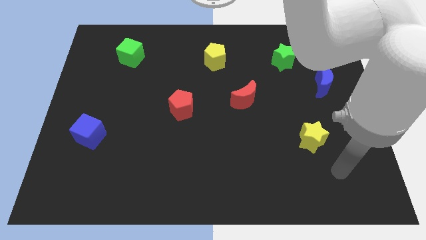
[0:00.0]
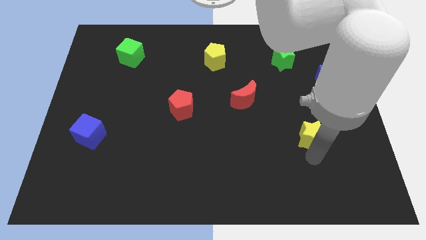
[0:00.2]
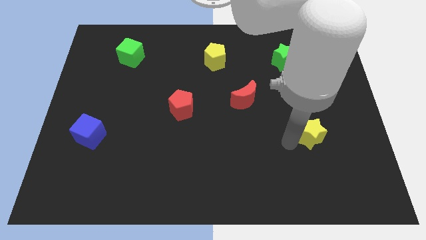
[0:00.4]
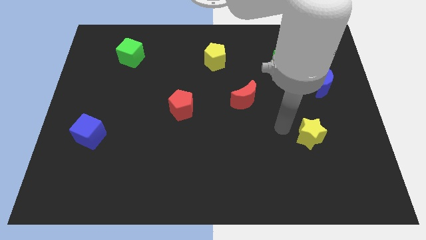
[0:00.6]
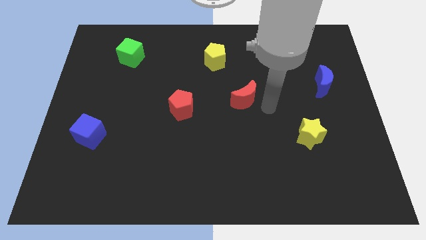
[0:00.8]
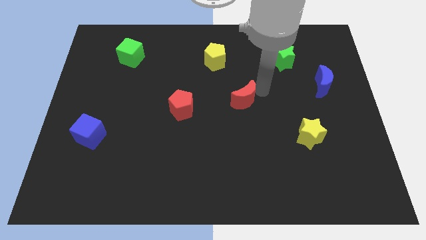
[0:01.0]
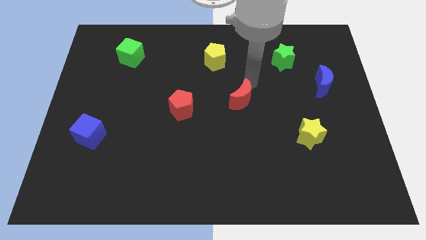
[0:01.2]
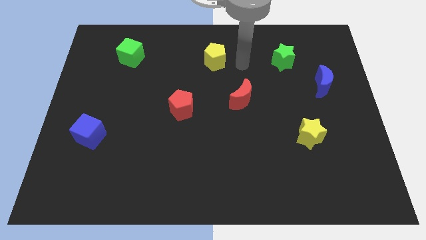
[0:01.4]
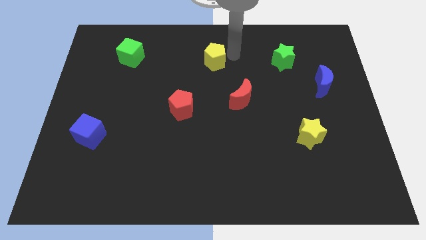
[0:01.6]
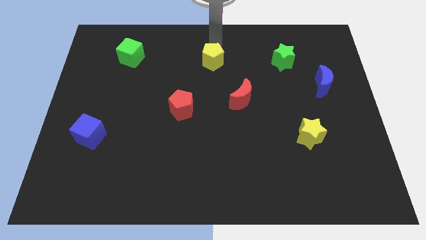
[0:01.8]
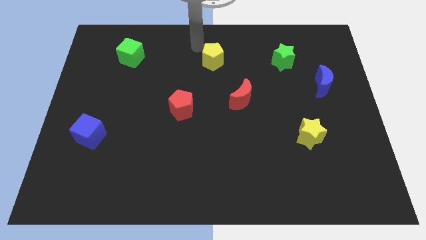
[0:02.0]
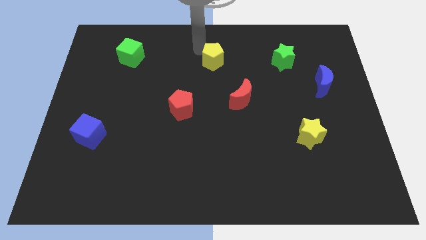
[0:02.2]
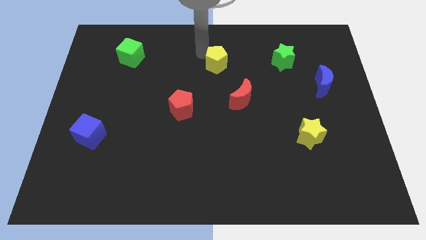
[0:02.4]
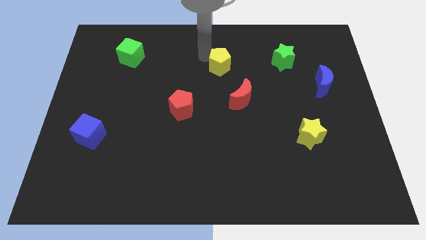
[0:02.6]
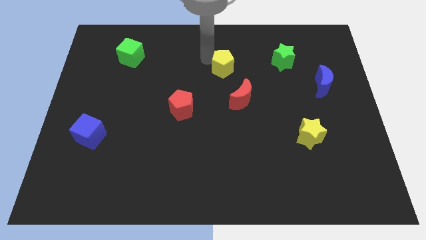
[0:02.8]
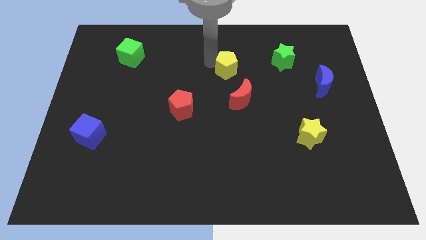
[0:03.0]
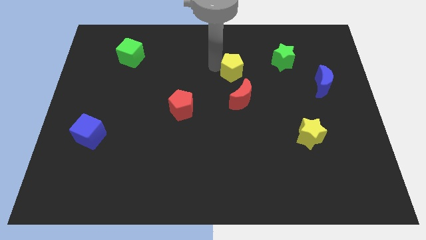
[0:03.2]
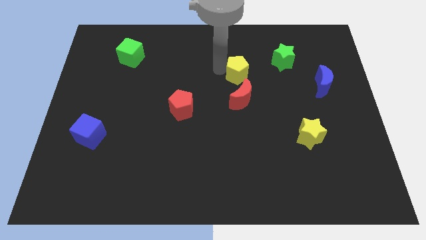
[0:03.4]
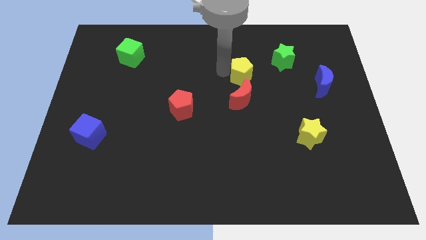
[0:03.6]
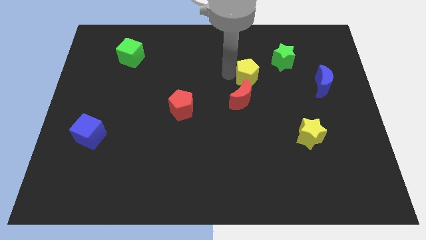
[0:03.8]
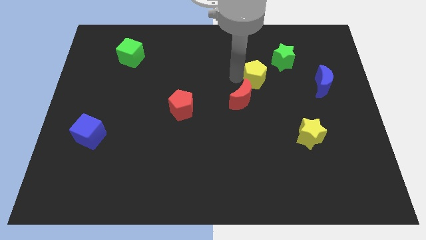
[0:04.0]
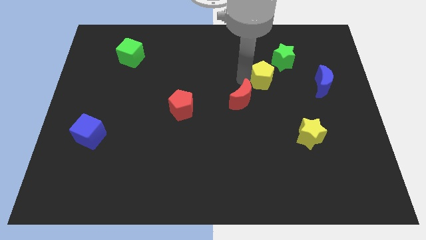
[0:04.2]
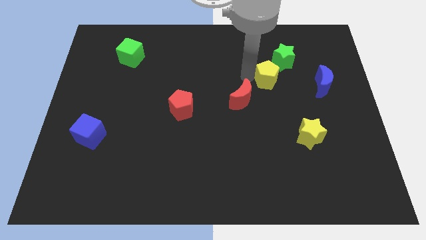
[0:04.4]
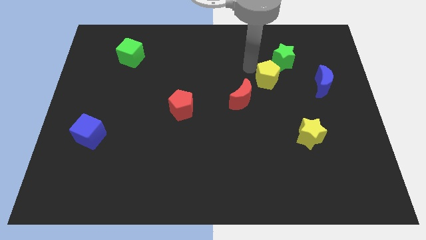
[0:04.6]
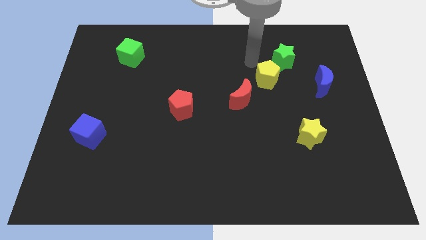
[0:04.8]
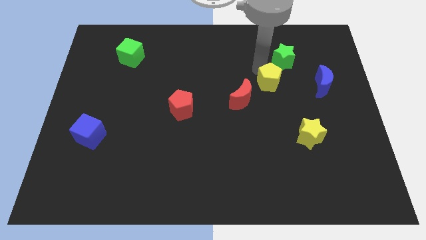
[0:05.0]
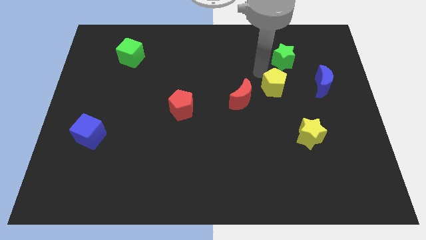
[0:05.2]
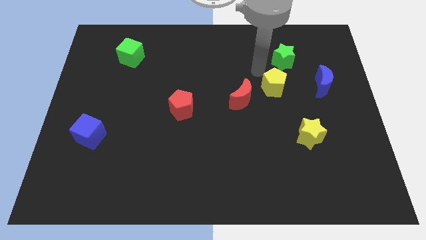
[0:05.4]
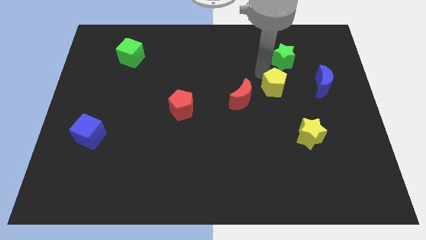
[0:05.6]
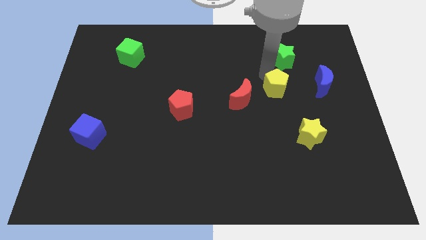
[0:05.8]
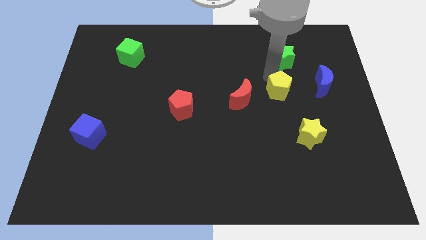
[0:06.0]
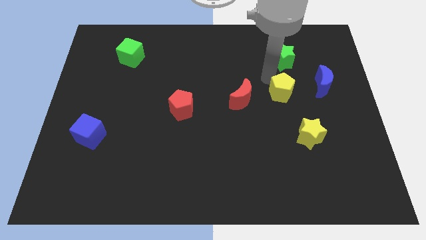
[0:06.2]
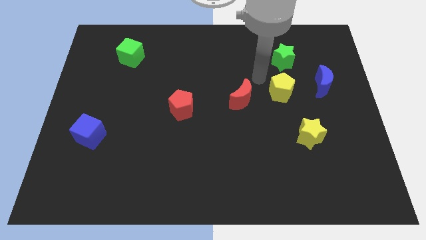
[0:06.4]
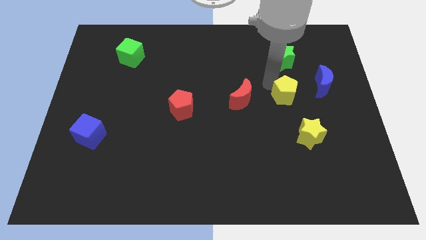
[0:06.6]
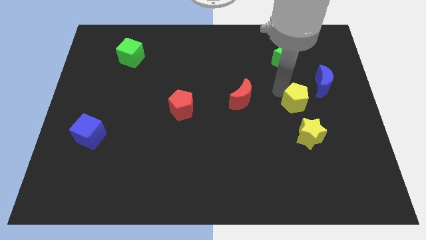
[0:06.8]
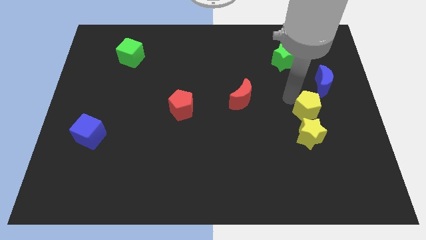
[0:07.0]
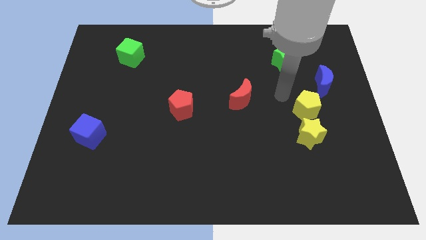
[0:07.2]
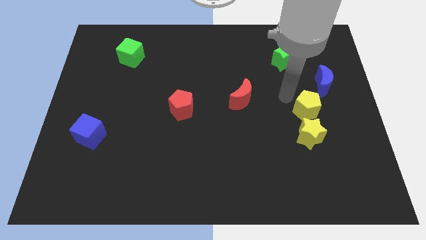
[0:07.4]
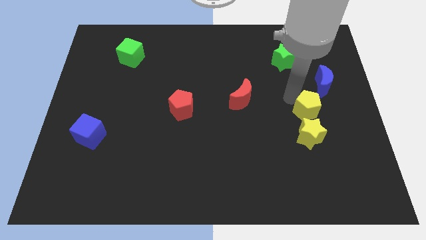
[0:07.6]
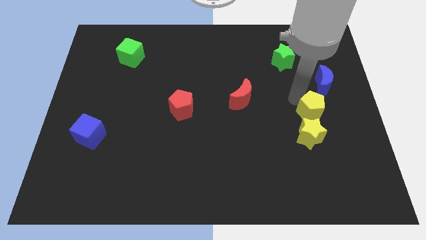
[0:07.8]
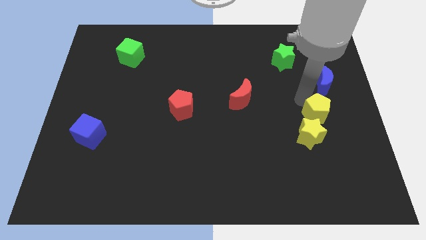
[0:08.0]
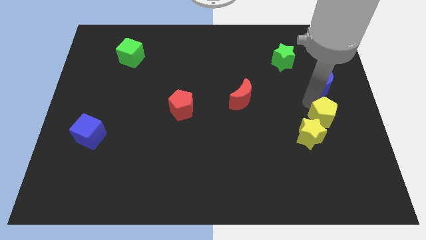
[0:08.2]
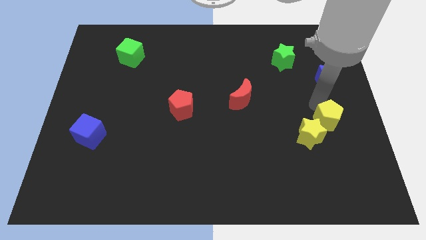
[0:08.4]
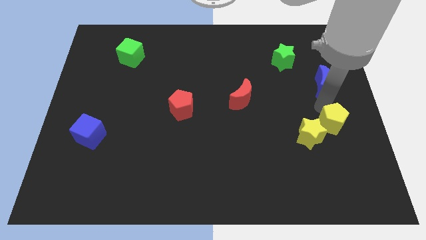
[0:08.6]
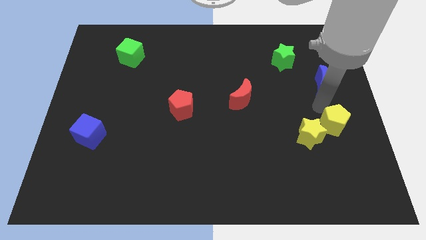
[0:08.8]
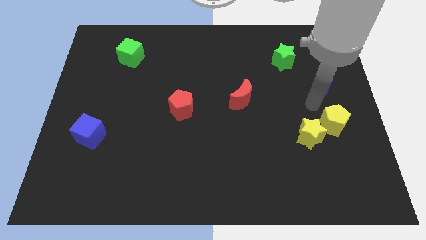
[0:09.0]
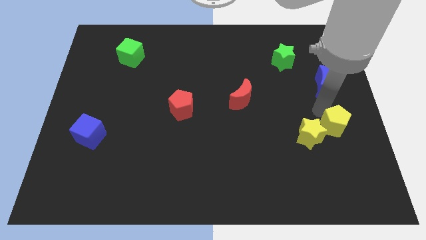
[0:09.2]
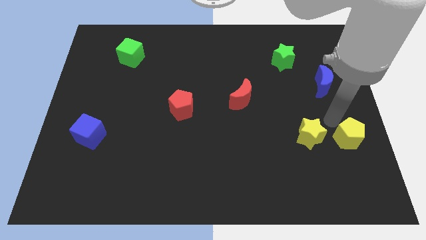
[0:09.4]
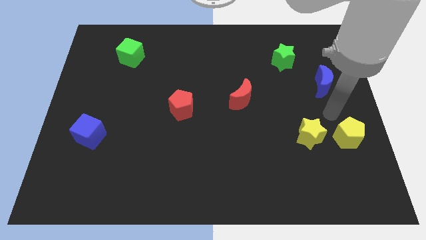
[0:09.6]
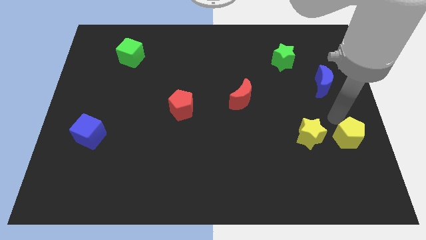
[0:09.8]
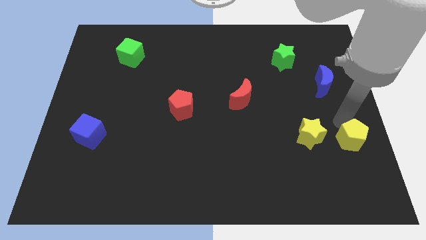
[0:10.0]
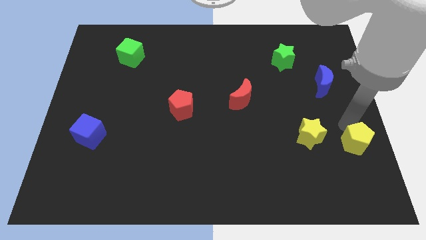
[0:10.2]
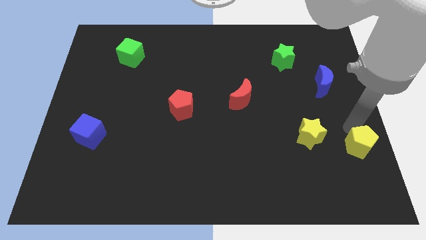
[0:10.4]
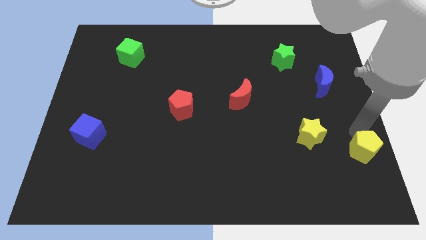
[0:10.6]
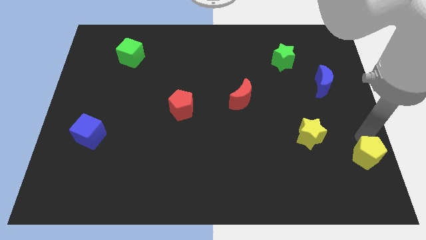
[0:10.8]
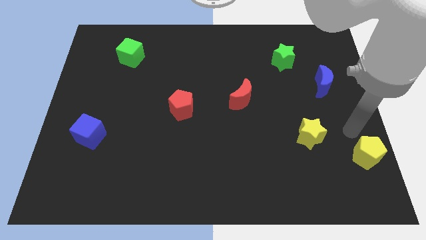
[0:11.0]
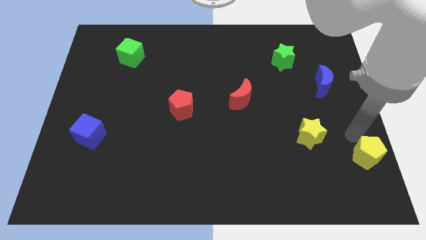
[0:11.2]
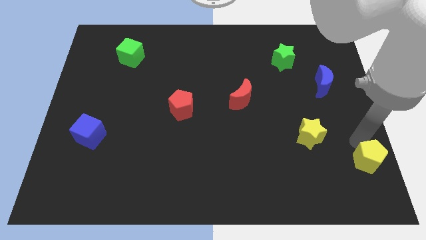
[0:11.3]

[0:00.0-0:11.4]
slide the yellow pentagon to the bottom right

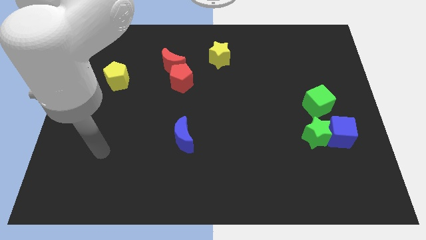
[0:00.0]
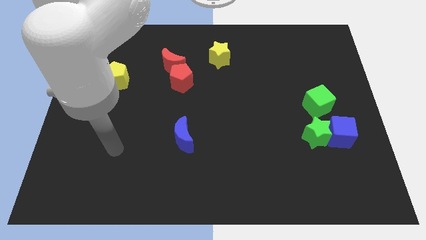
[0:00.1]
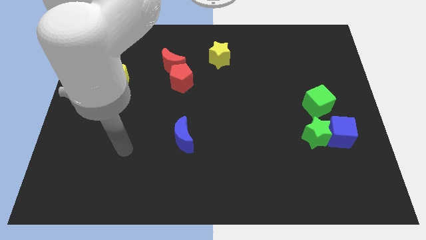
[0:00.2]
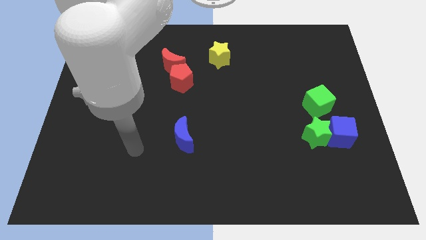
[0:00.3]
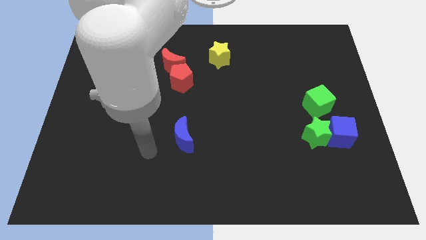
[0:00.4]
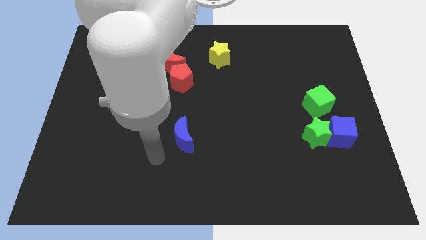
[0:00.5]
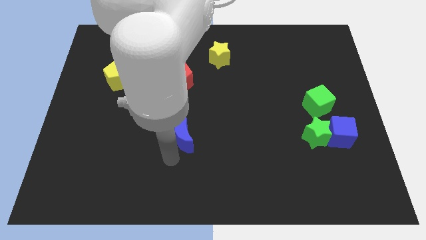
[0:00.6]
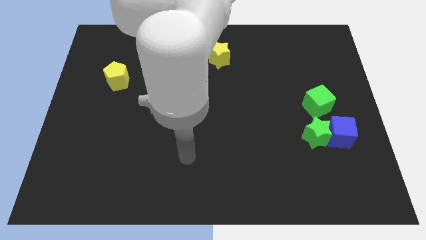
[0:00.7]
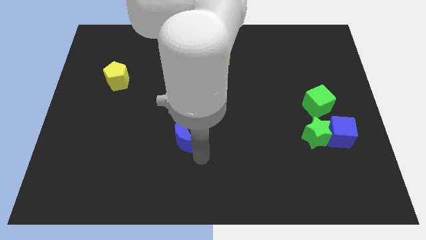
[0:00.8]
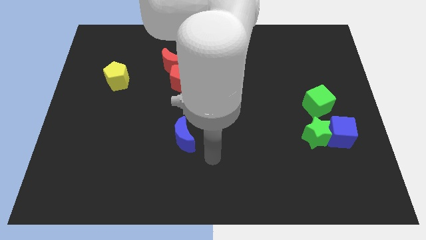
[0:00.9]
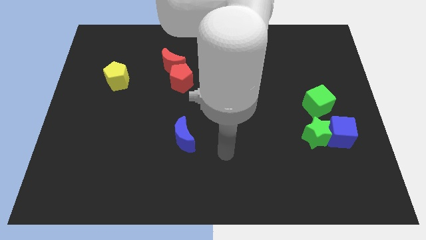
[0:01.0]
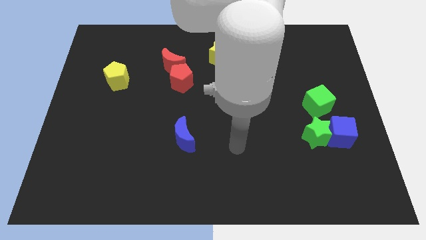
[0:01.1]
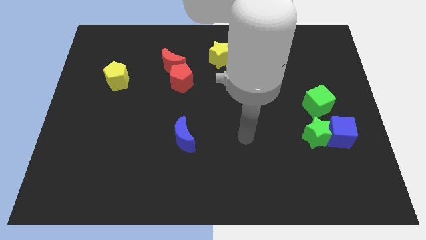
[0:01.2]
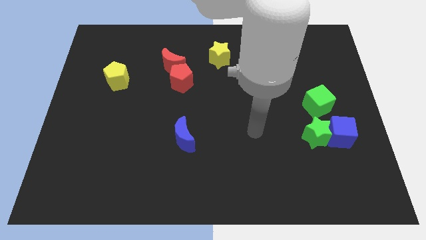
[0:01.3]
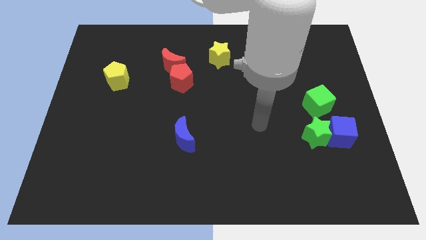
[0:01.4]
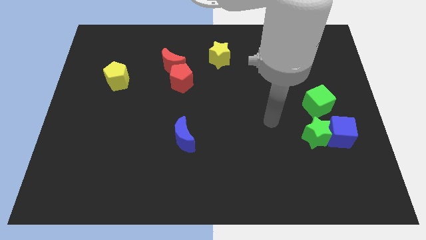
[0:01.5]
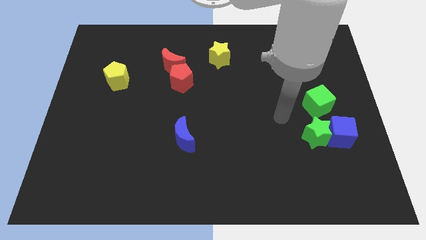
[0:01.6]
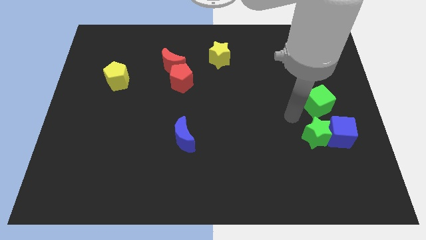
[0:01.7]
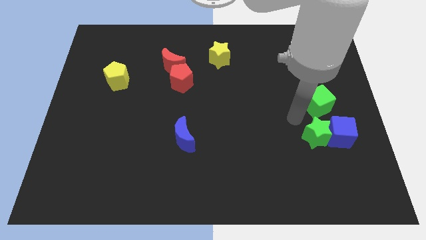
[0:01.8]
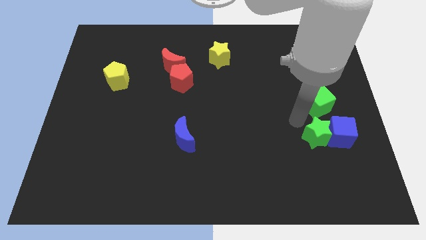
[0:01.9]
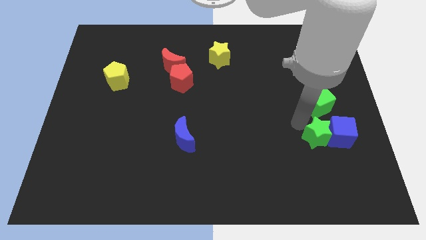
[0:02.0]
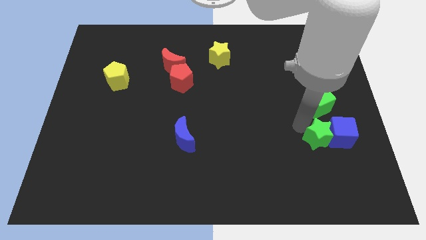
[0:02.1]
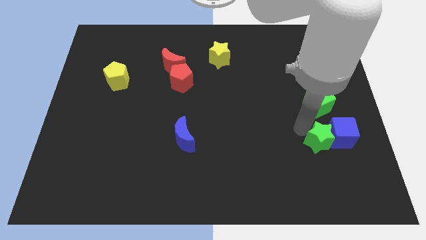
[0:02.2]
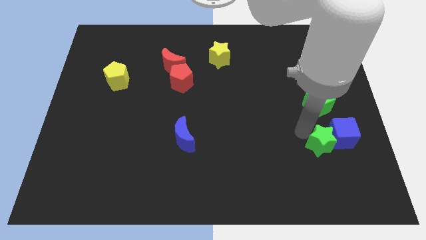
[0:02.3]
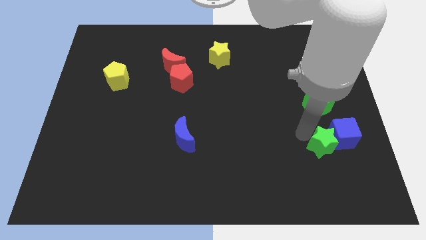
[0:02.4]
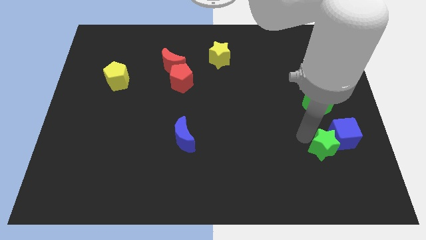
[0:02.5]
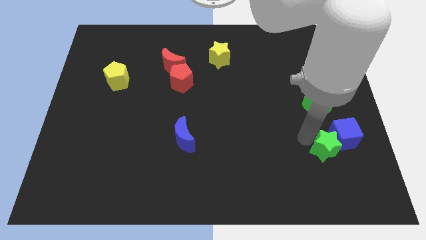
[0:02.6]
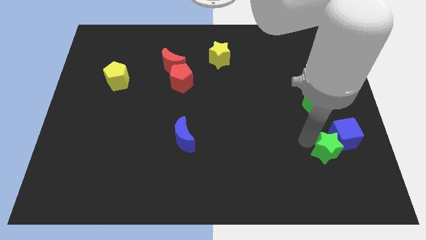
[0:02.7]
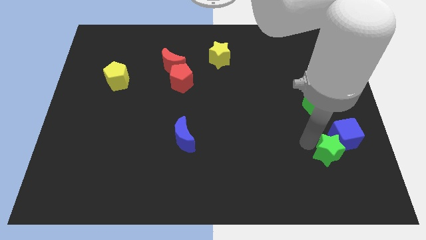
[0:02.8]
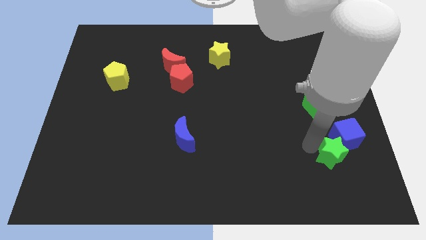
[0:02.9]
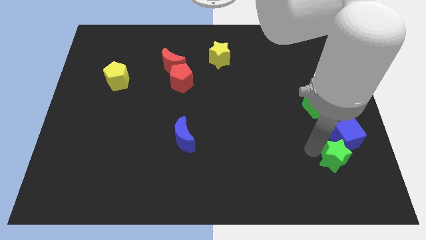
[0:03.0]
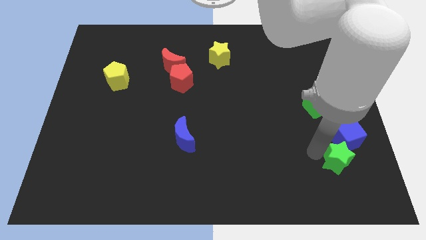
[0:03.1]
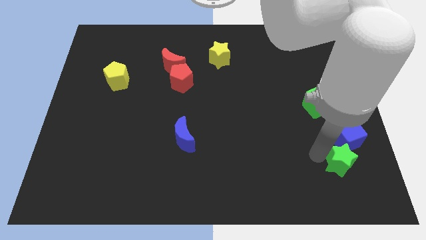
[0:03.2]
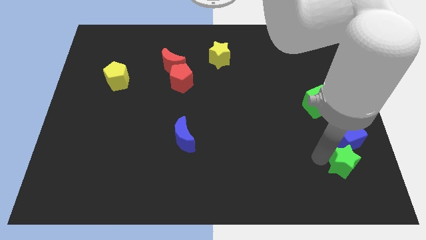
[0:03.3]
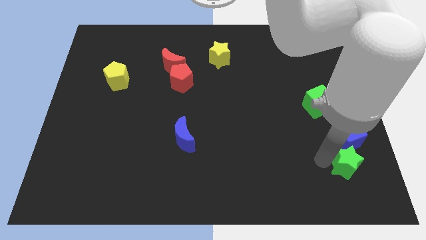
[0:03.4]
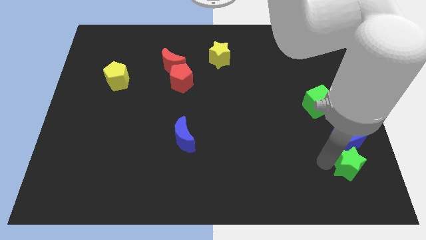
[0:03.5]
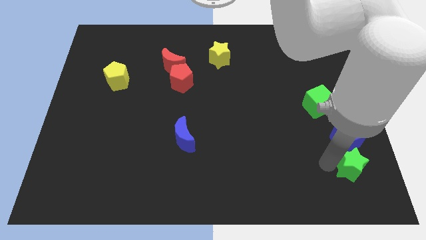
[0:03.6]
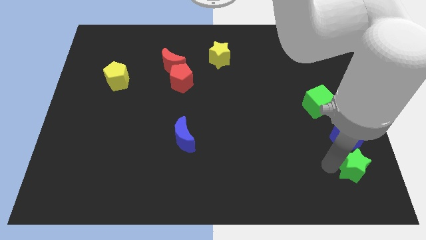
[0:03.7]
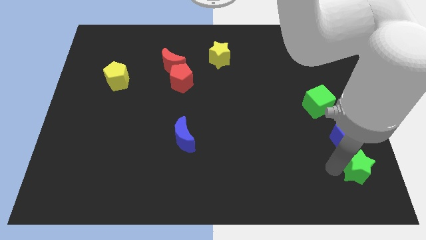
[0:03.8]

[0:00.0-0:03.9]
push the green star to the bottom right of the board
